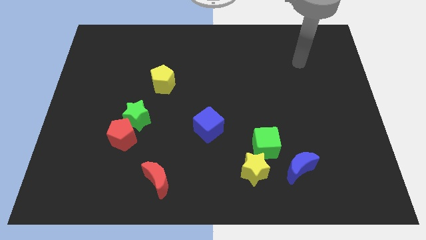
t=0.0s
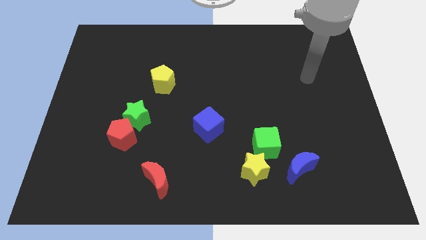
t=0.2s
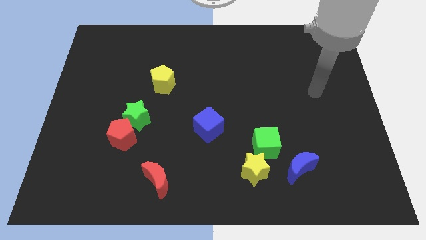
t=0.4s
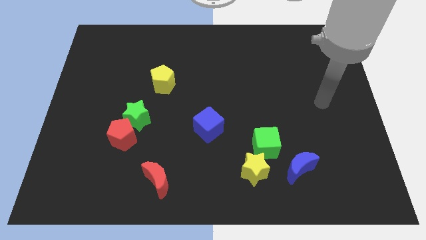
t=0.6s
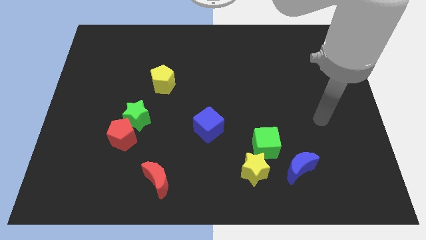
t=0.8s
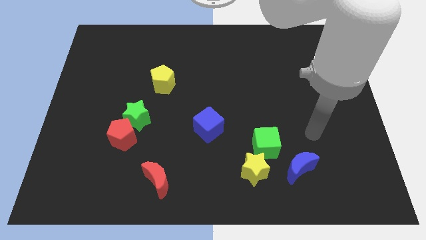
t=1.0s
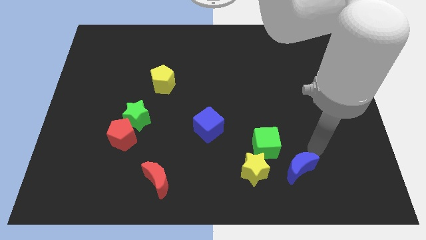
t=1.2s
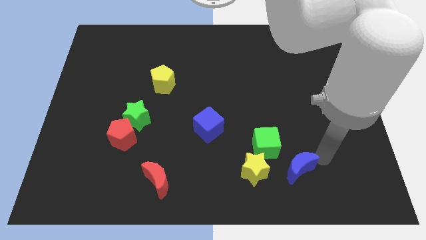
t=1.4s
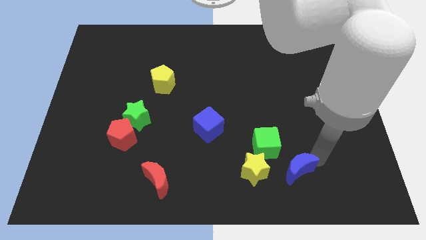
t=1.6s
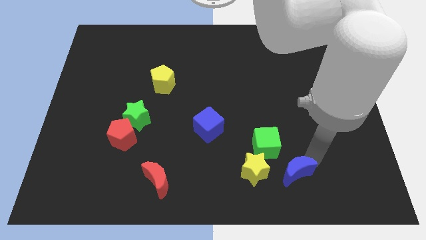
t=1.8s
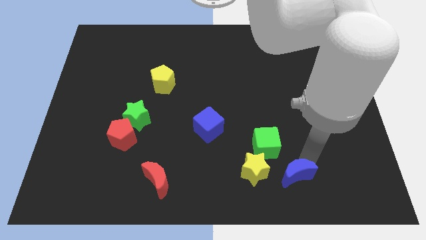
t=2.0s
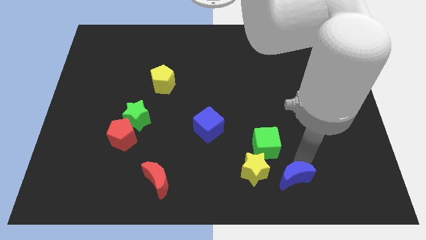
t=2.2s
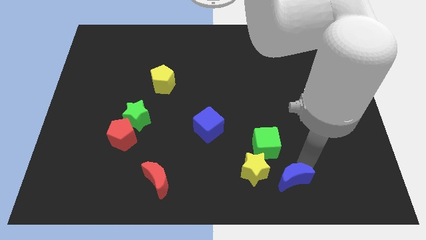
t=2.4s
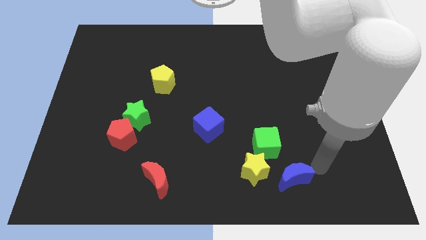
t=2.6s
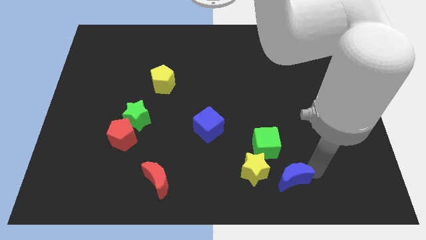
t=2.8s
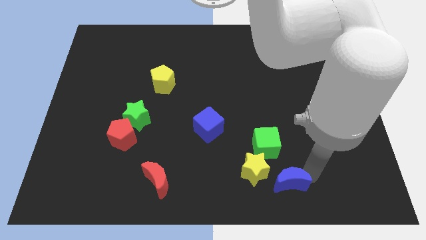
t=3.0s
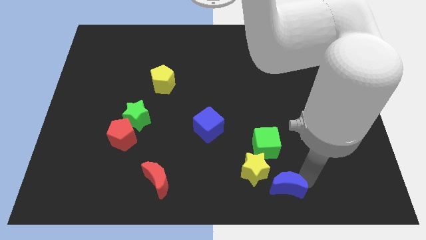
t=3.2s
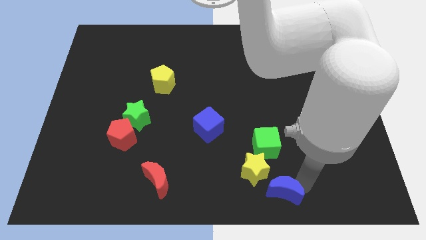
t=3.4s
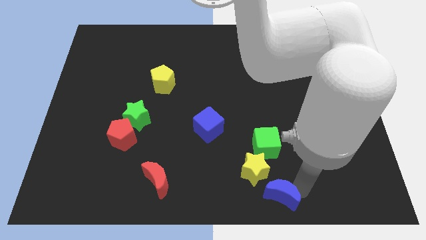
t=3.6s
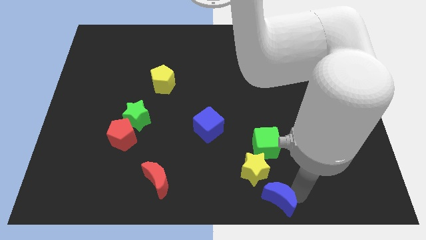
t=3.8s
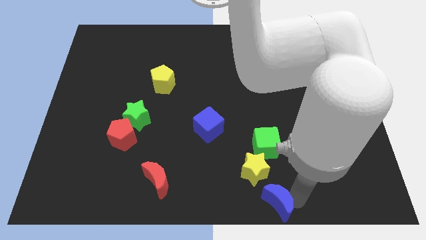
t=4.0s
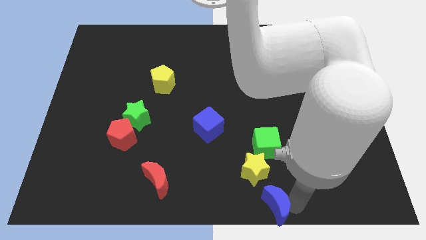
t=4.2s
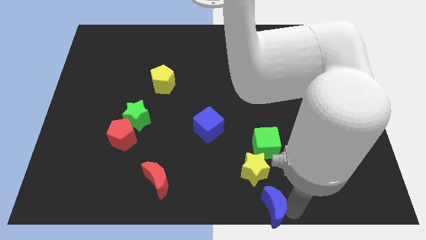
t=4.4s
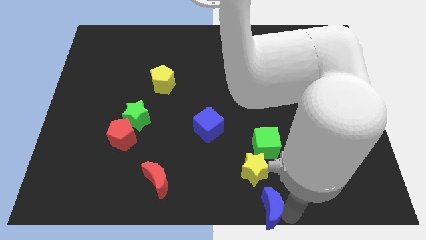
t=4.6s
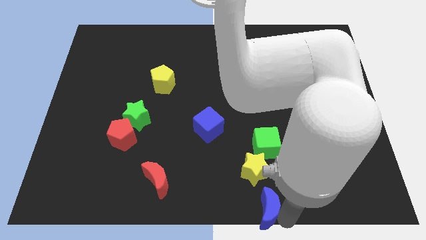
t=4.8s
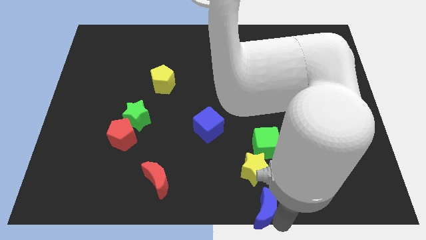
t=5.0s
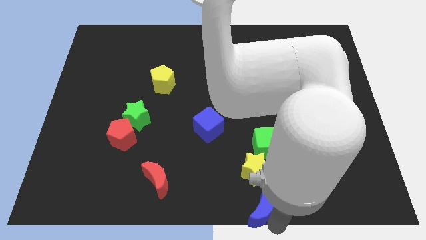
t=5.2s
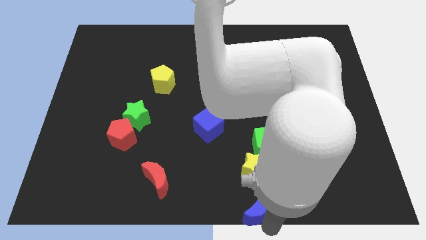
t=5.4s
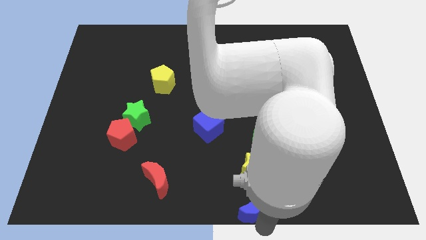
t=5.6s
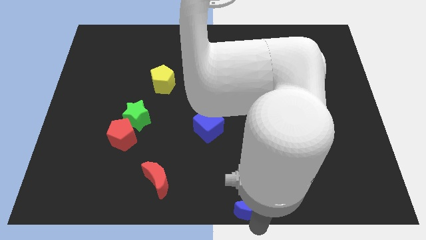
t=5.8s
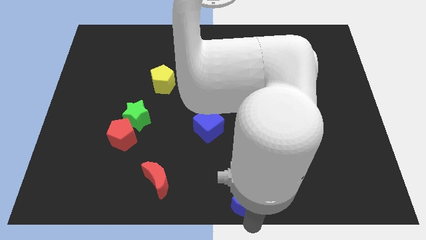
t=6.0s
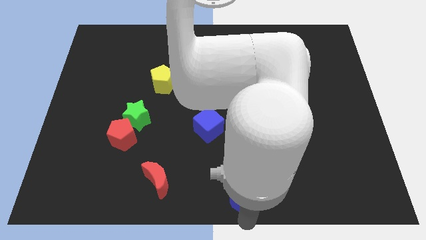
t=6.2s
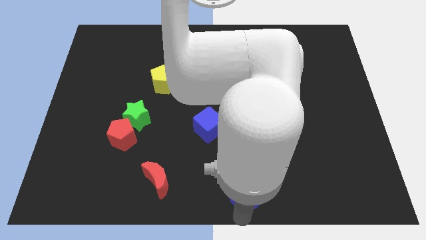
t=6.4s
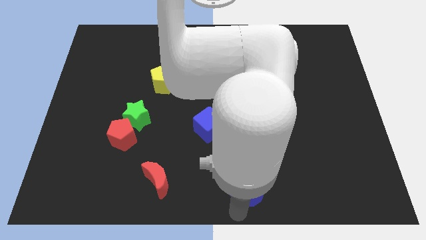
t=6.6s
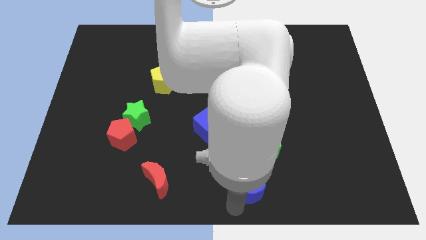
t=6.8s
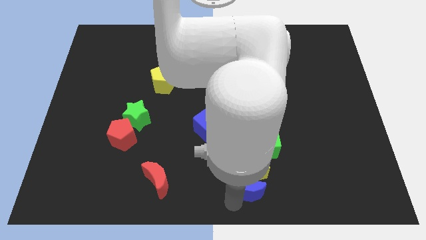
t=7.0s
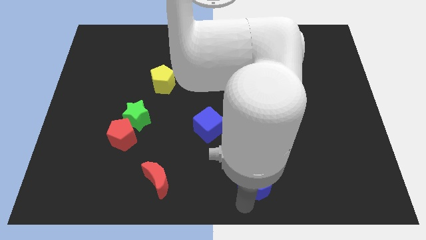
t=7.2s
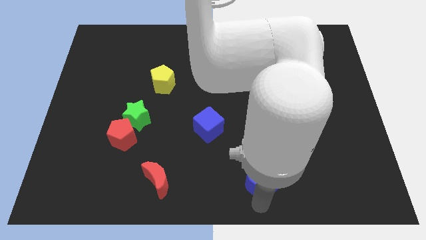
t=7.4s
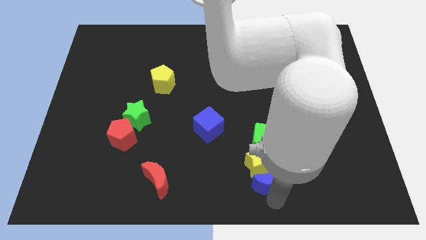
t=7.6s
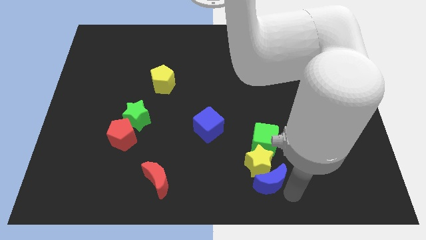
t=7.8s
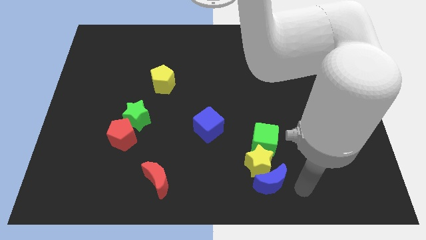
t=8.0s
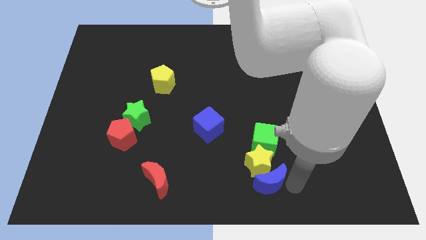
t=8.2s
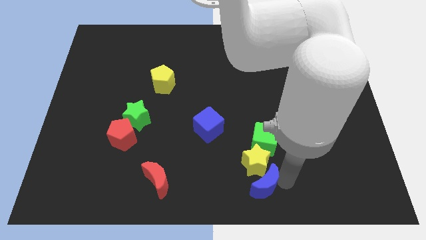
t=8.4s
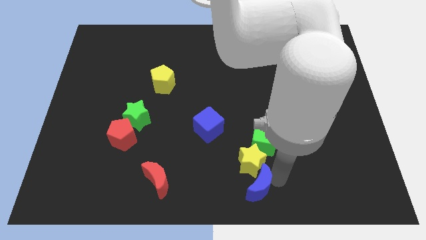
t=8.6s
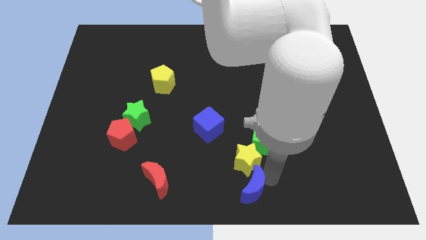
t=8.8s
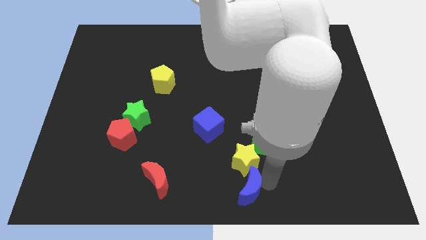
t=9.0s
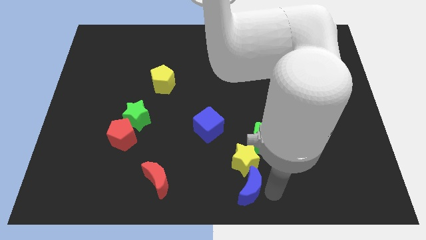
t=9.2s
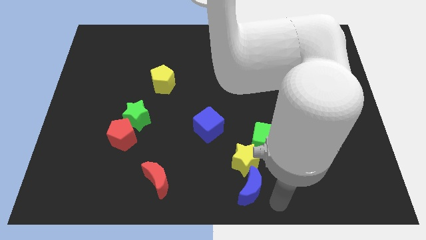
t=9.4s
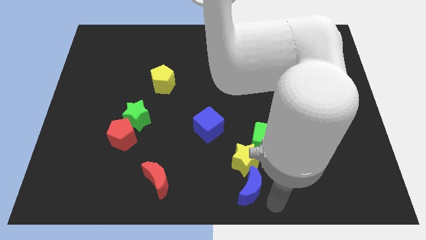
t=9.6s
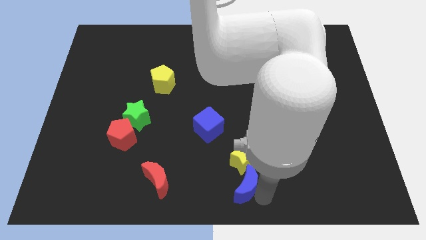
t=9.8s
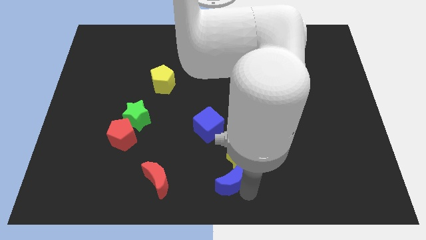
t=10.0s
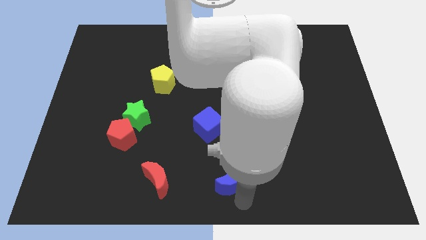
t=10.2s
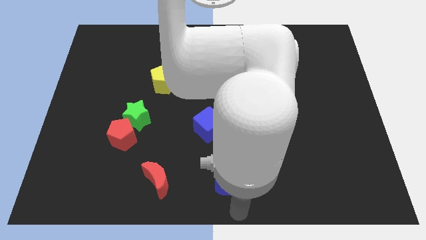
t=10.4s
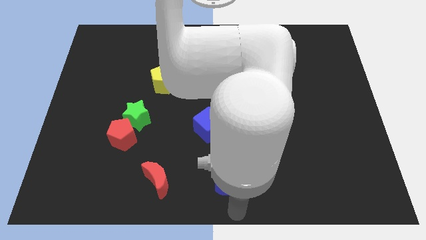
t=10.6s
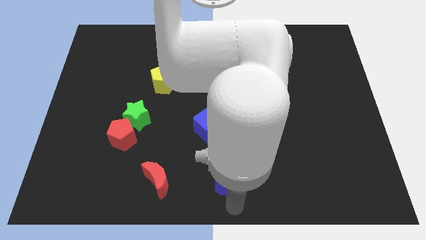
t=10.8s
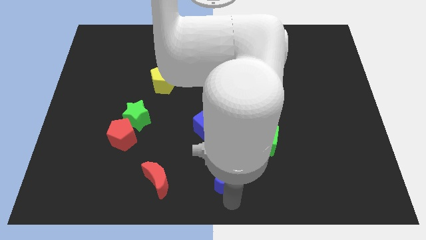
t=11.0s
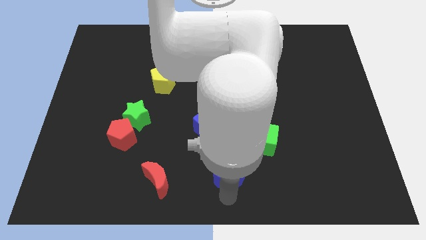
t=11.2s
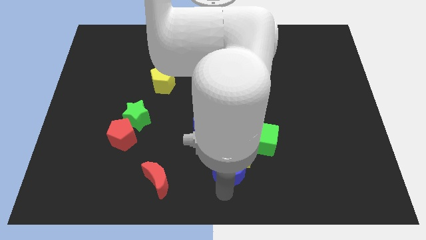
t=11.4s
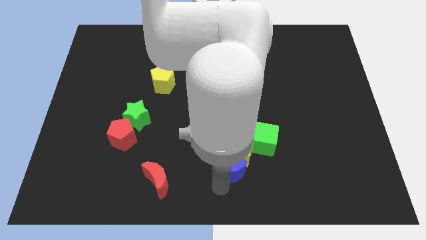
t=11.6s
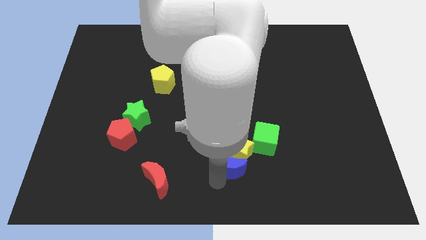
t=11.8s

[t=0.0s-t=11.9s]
move the blue moon to the bottom right of the blue cube

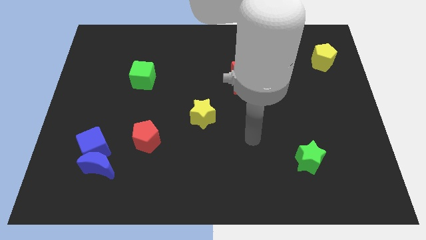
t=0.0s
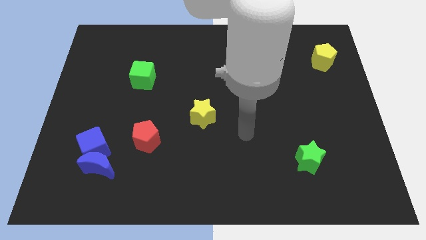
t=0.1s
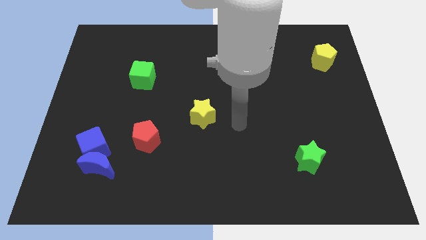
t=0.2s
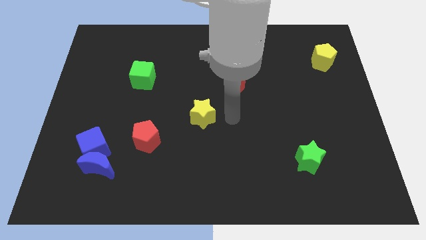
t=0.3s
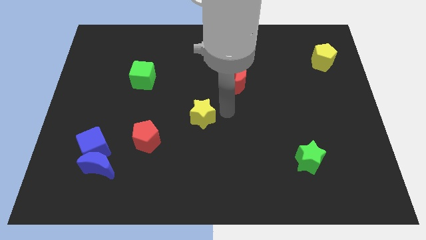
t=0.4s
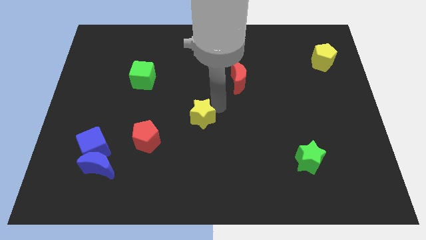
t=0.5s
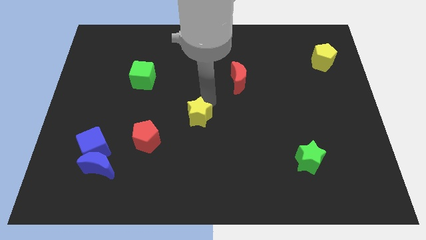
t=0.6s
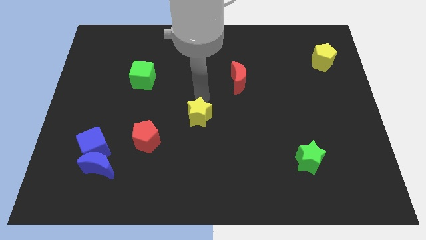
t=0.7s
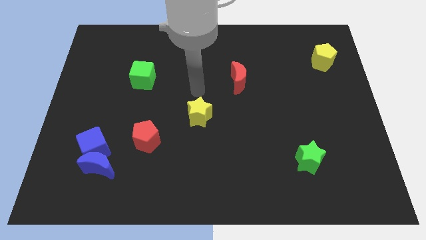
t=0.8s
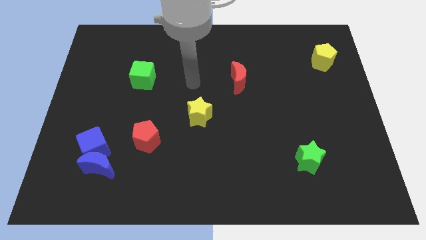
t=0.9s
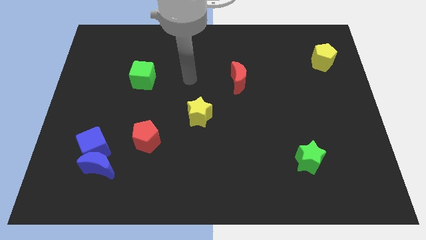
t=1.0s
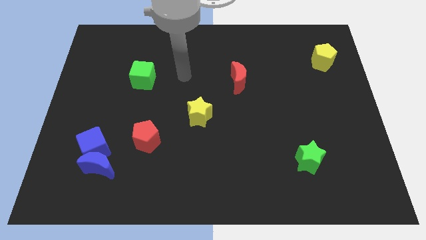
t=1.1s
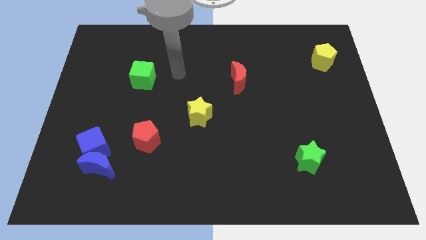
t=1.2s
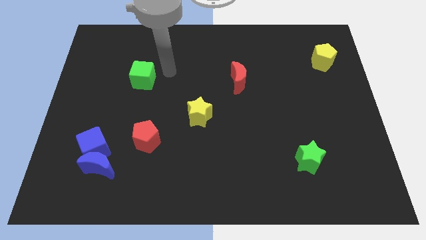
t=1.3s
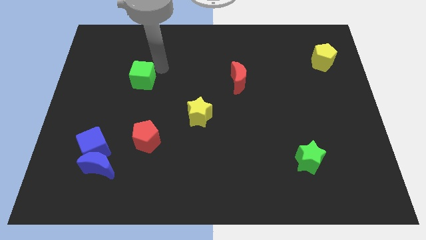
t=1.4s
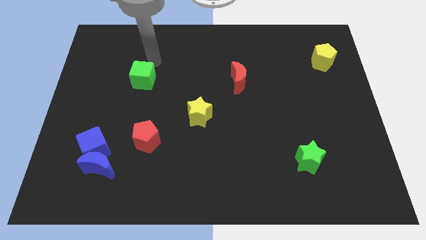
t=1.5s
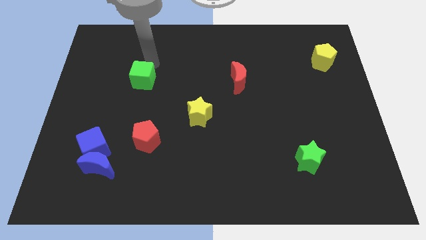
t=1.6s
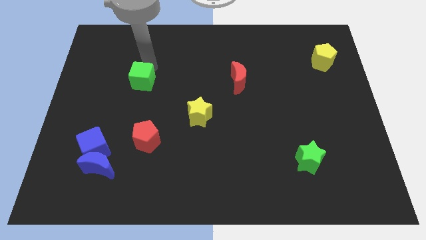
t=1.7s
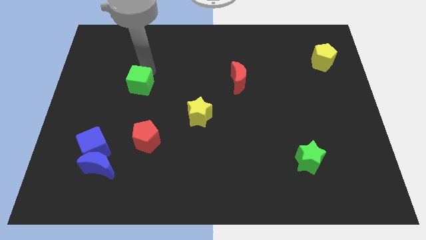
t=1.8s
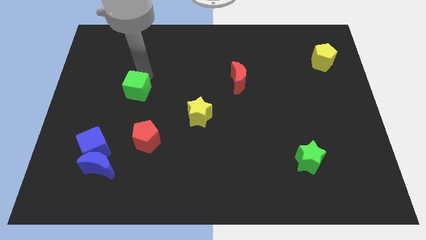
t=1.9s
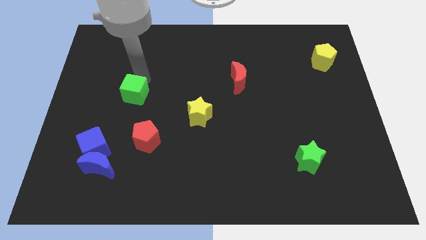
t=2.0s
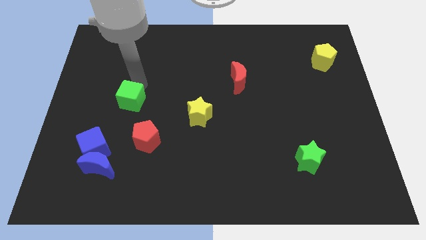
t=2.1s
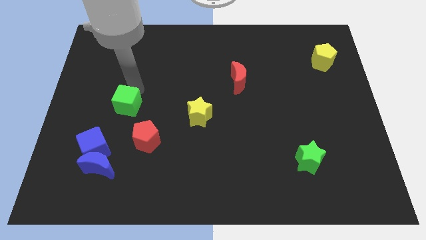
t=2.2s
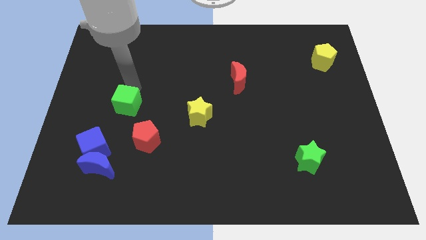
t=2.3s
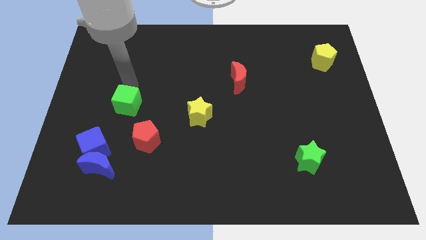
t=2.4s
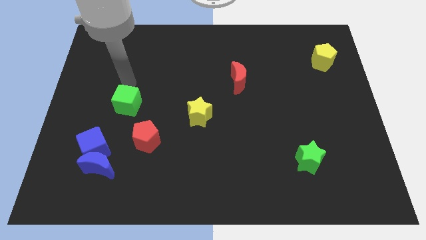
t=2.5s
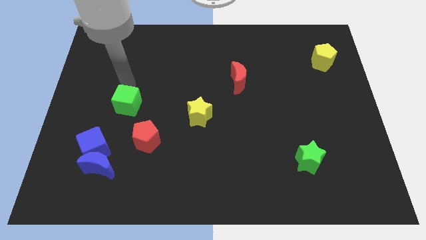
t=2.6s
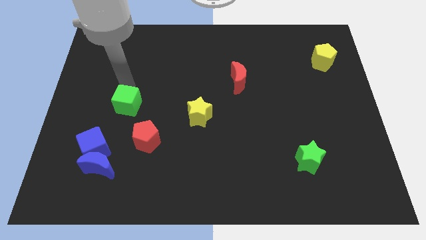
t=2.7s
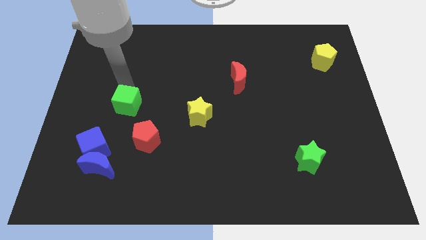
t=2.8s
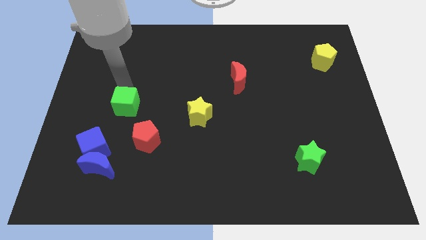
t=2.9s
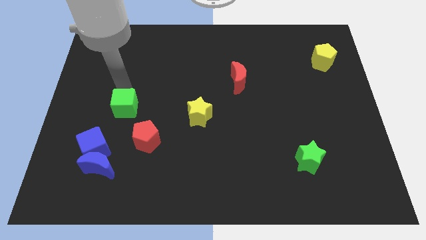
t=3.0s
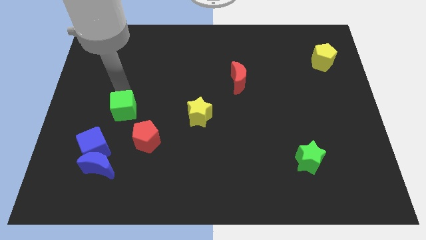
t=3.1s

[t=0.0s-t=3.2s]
put the green cube to the top right of the blue cube
